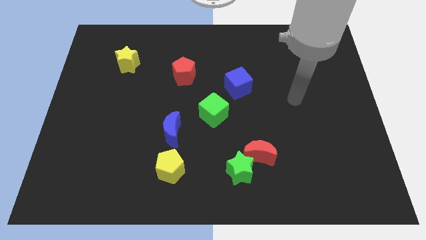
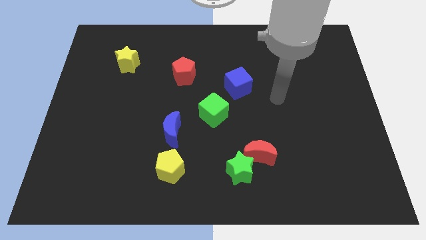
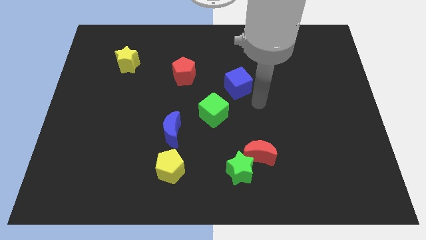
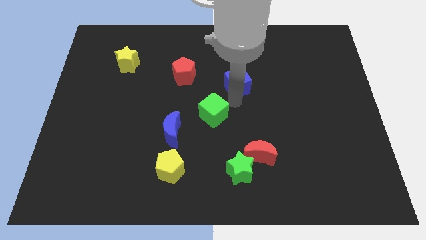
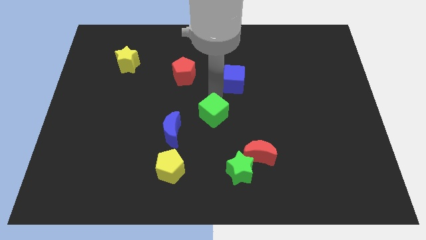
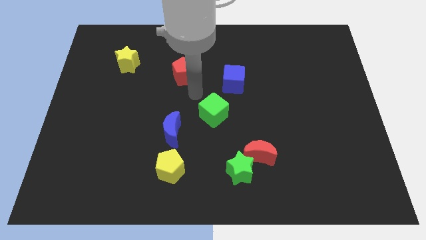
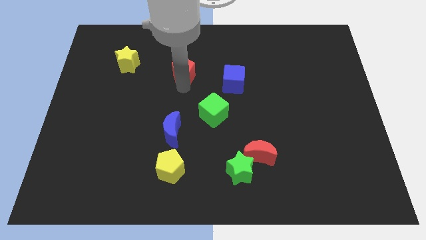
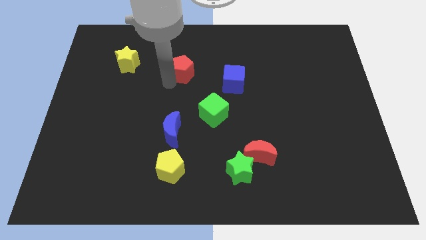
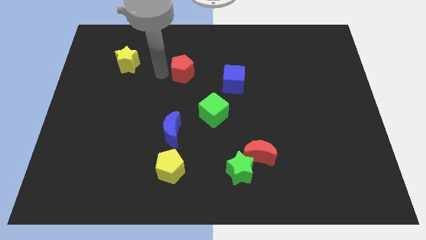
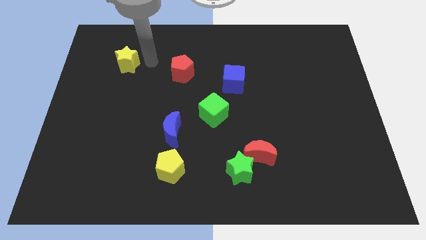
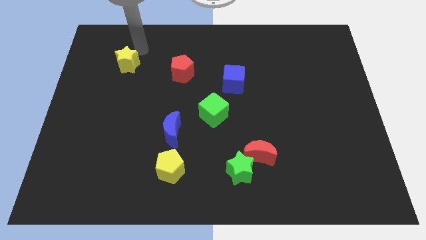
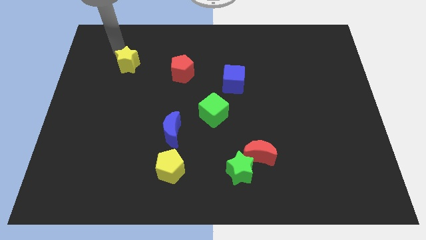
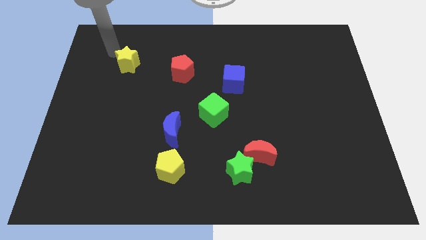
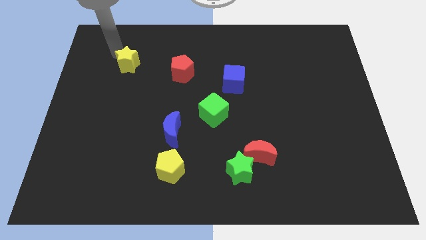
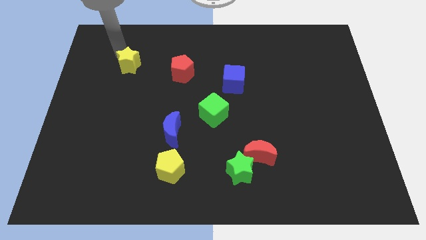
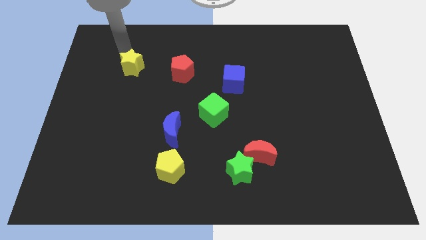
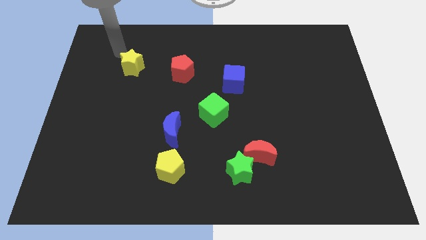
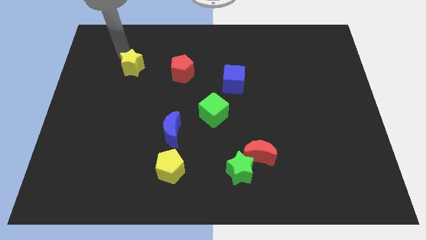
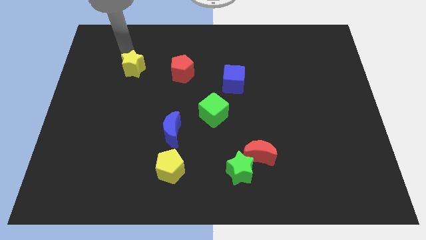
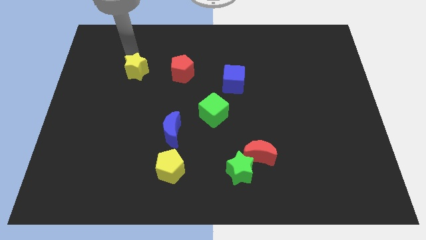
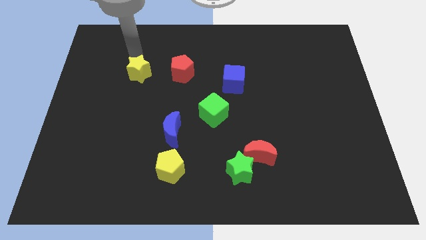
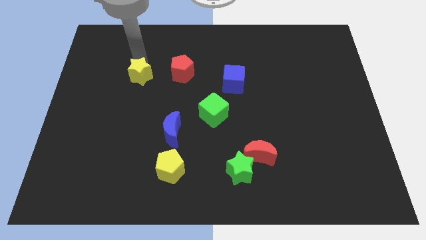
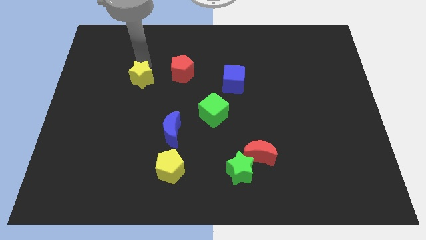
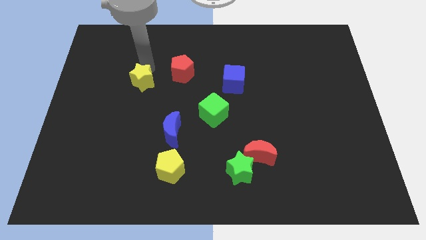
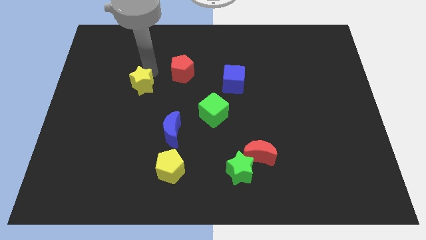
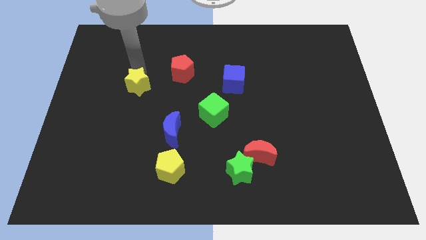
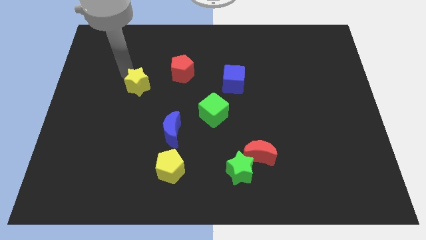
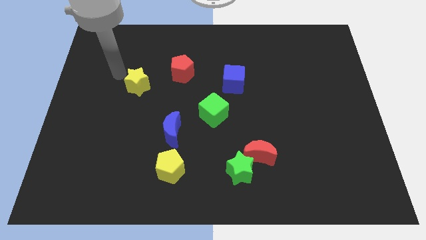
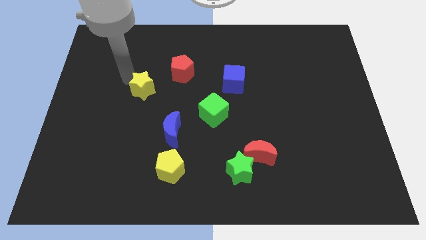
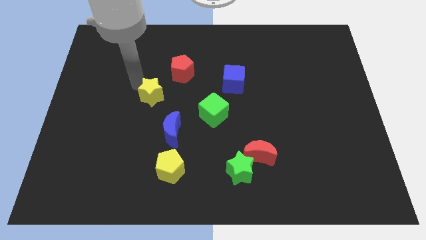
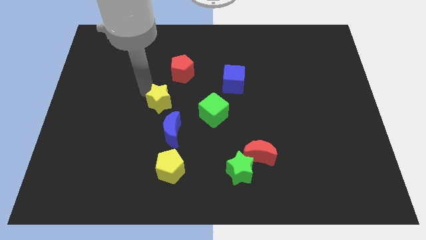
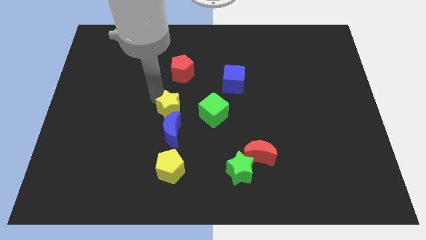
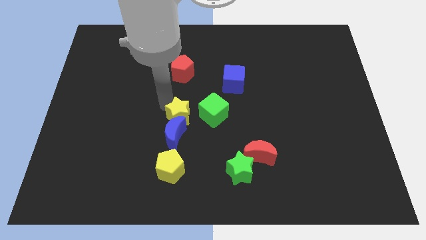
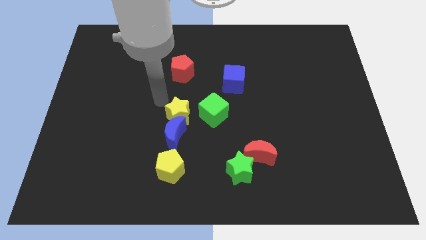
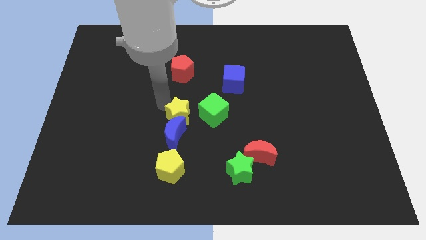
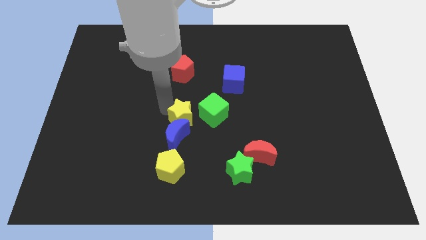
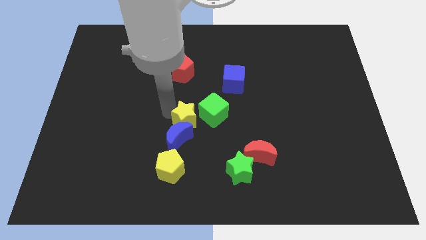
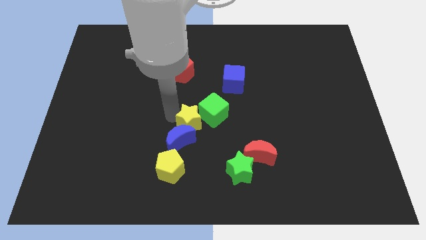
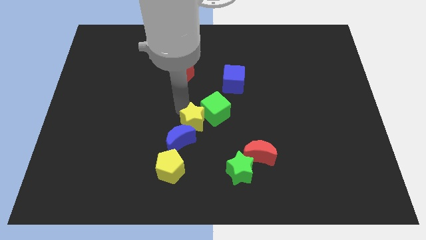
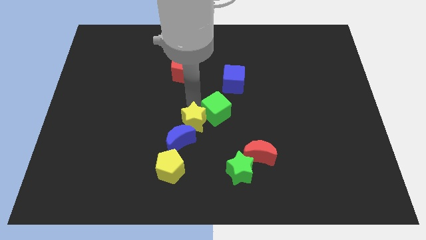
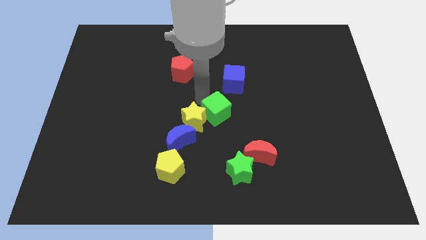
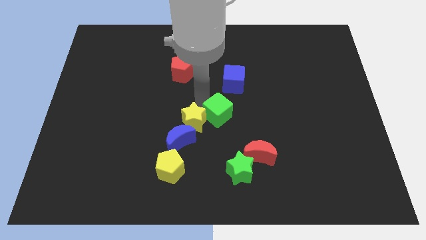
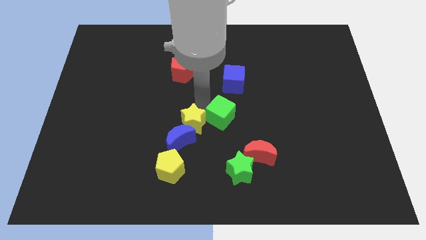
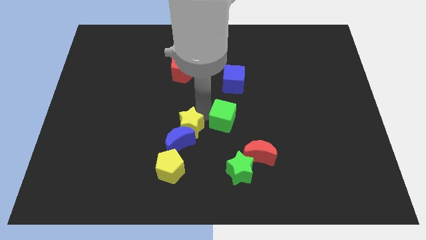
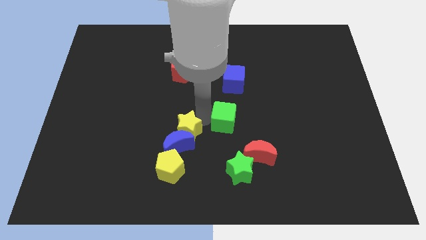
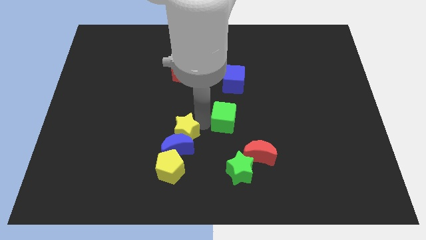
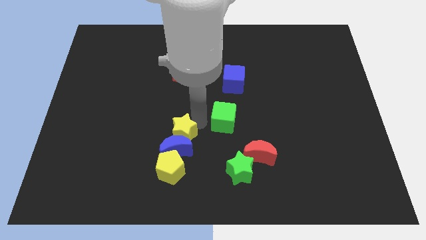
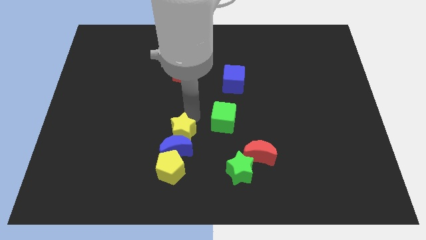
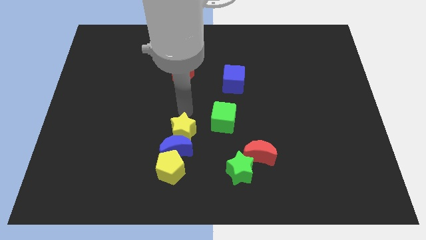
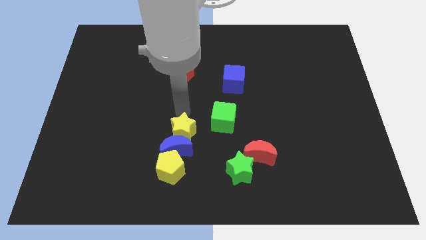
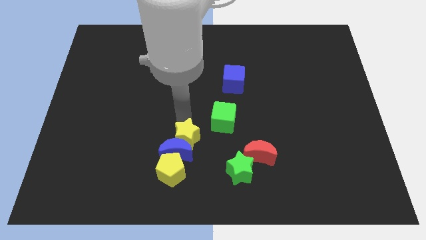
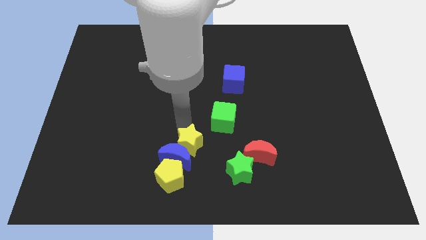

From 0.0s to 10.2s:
slide the yellow star to the left of the red moon

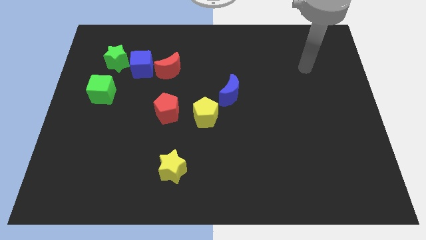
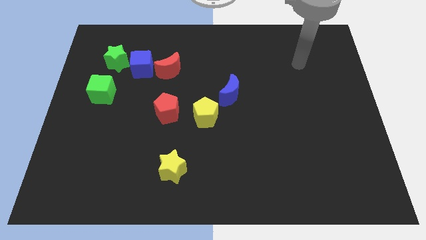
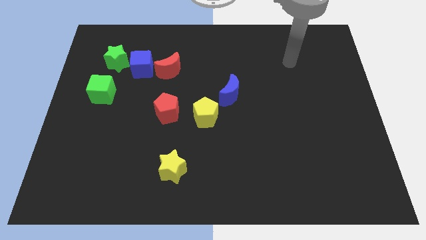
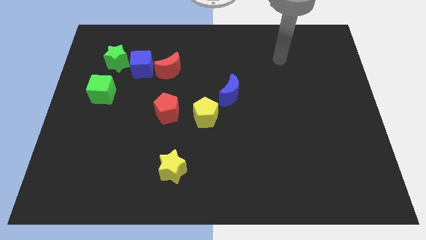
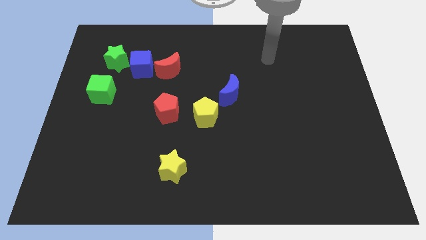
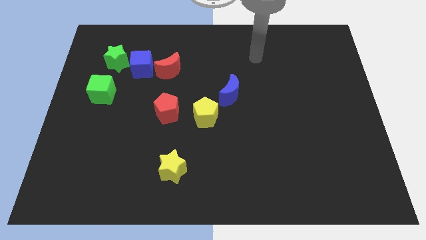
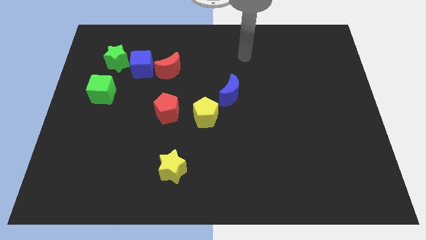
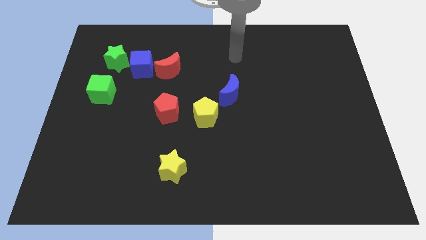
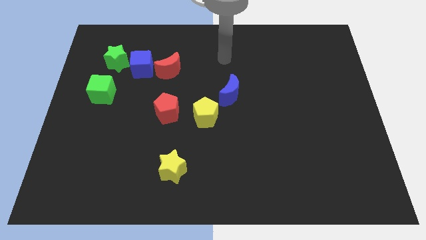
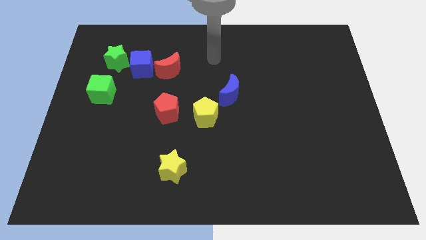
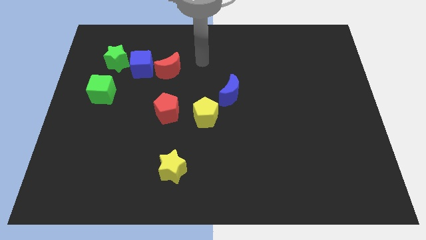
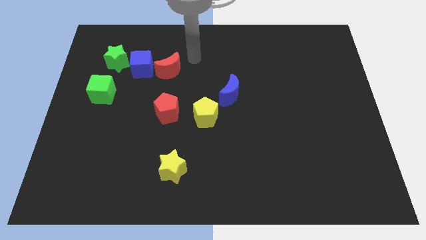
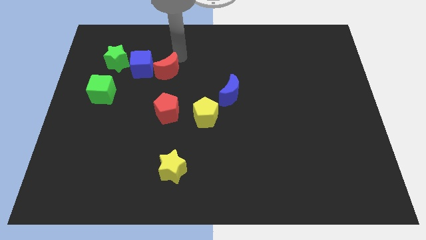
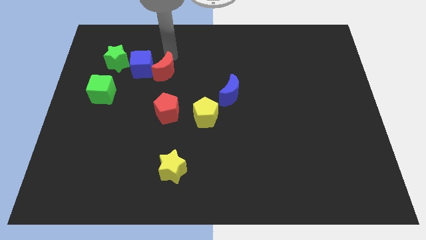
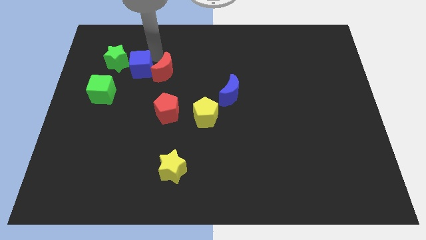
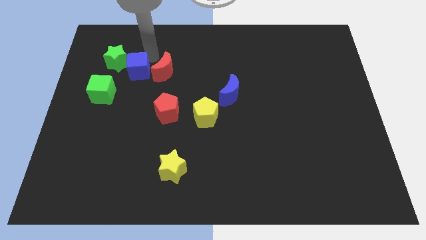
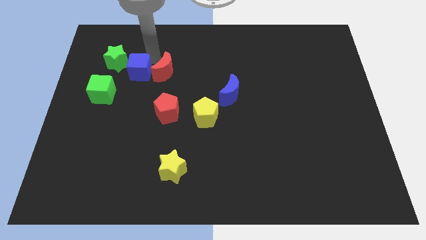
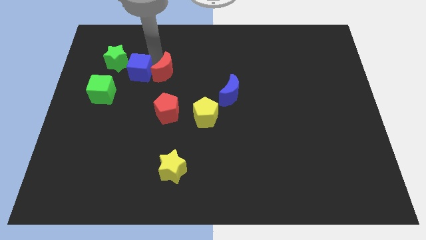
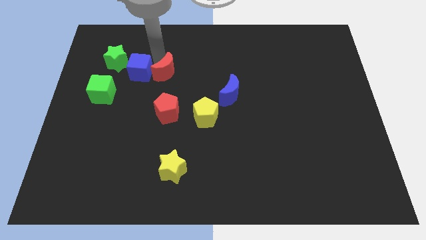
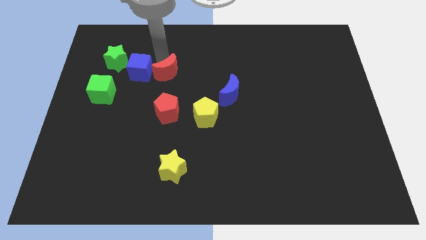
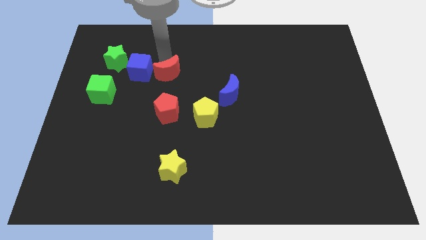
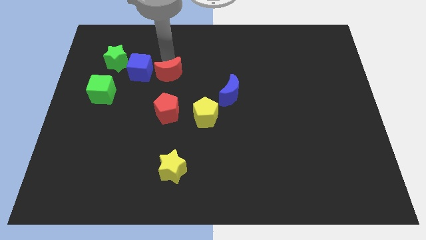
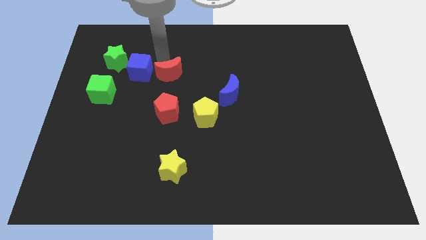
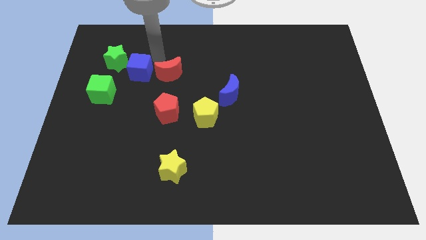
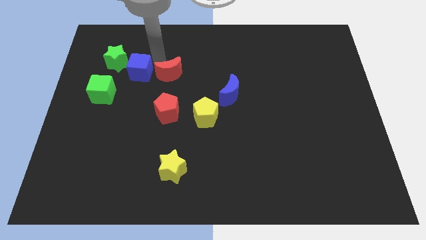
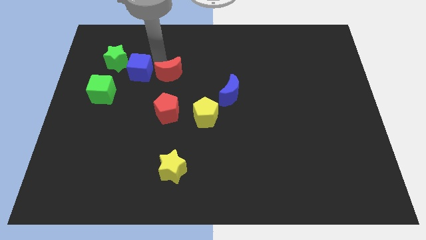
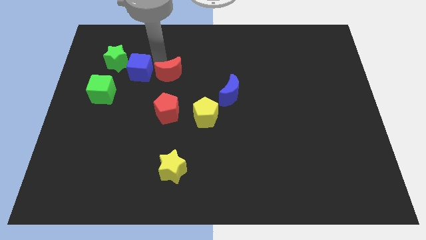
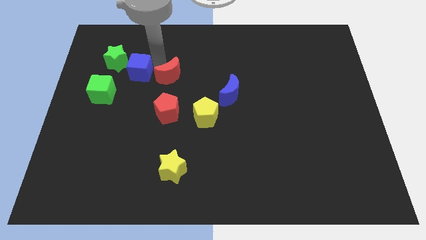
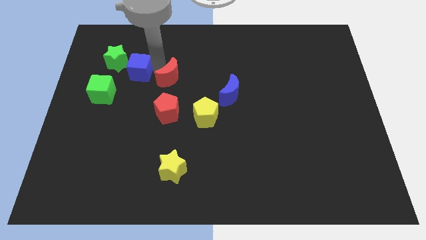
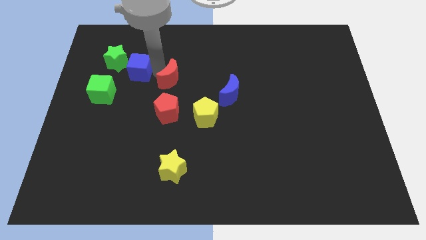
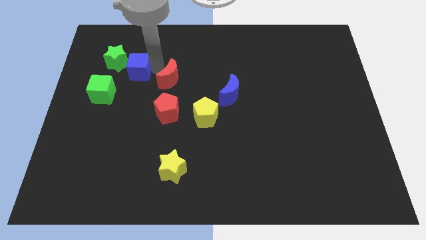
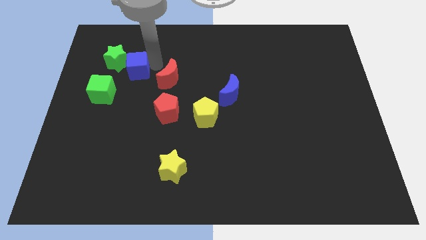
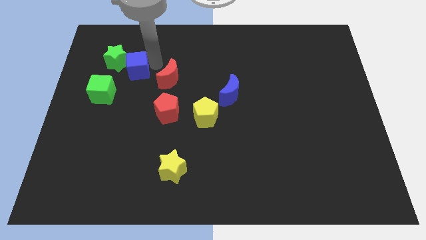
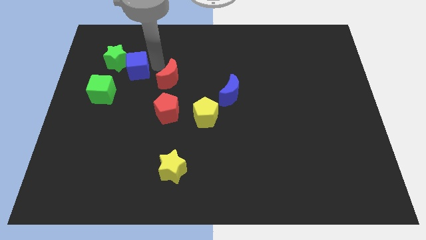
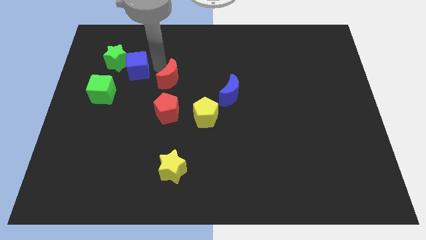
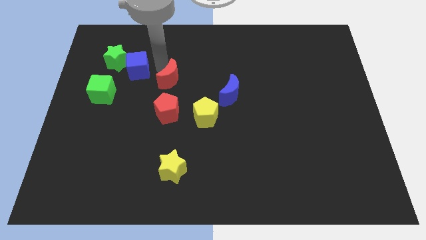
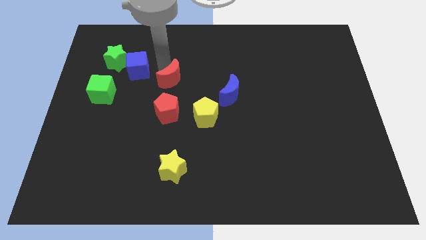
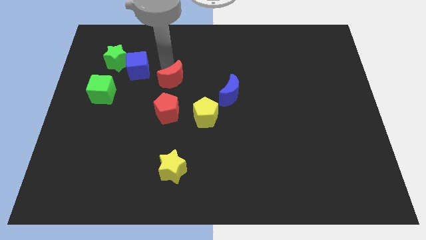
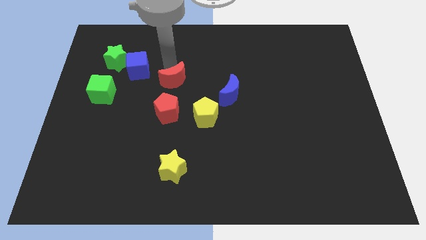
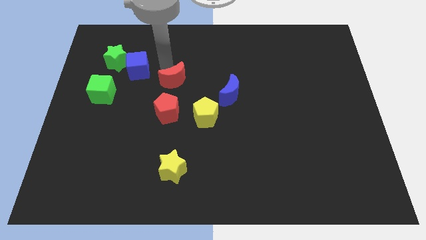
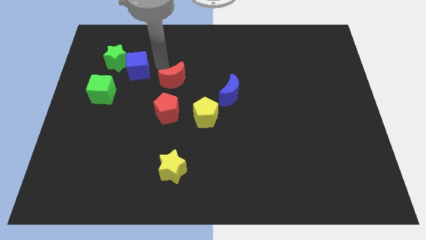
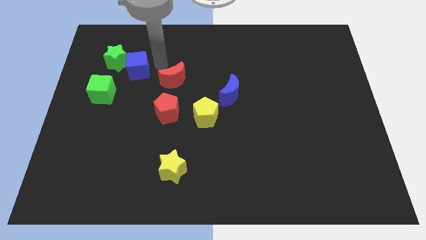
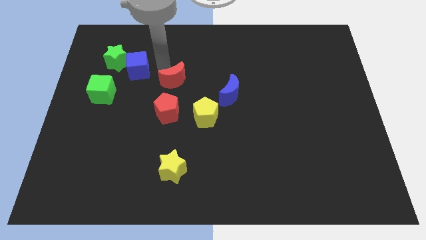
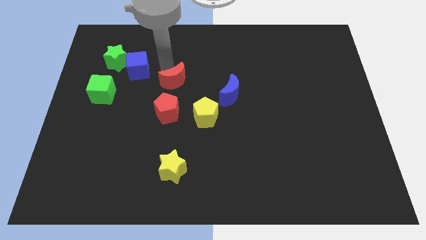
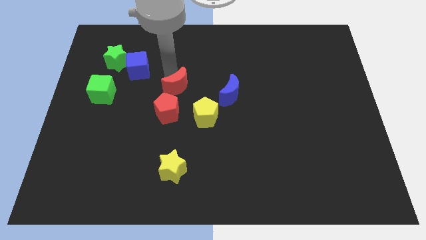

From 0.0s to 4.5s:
push the red moon just left of the blue moon
